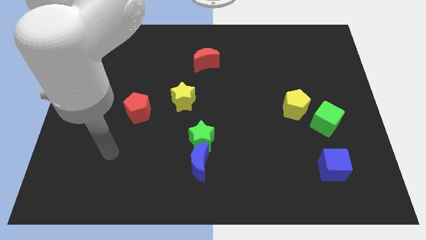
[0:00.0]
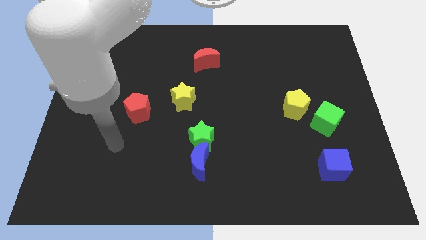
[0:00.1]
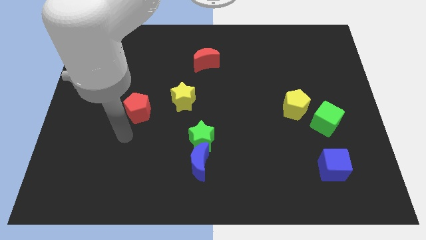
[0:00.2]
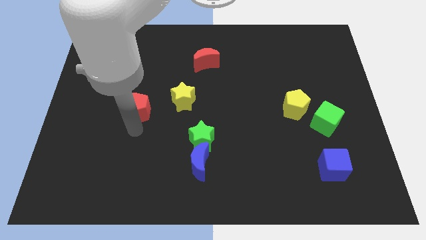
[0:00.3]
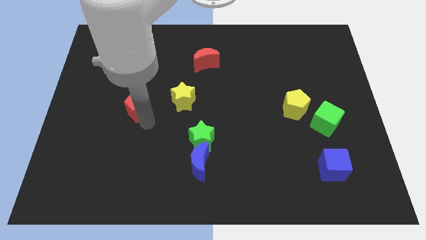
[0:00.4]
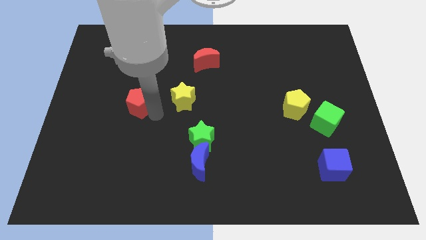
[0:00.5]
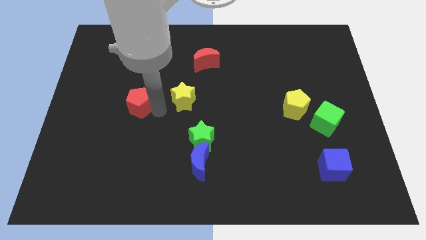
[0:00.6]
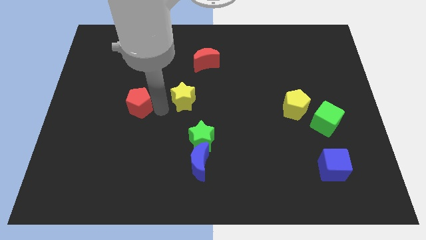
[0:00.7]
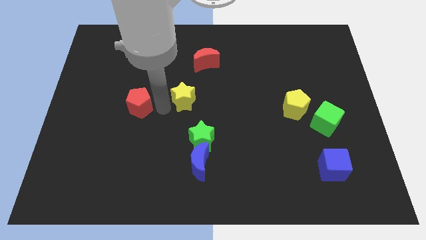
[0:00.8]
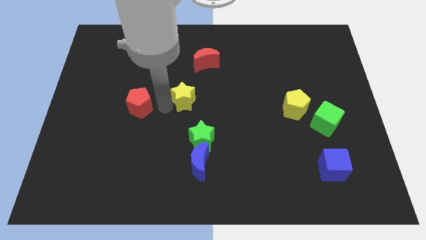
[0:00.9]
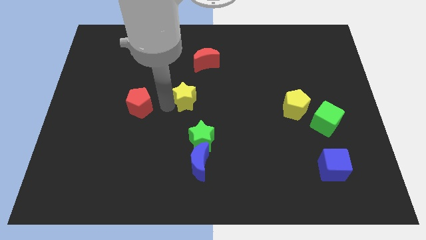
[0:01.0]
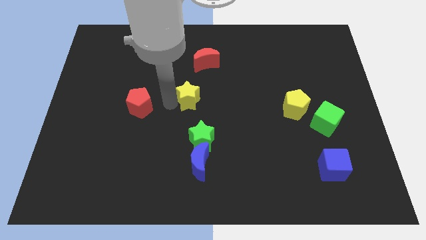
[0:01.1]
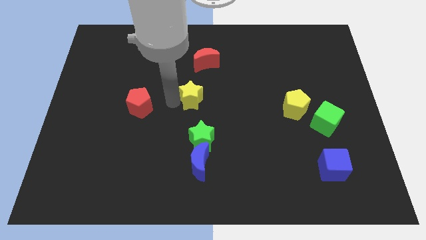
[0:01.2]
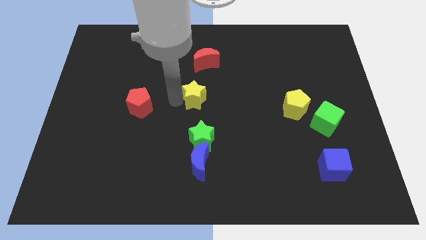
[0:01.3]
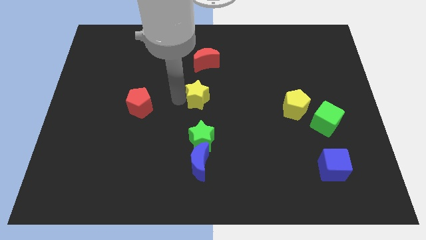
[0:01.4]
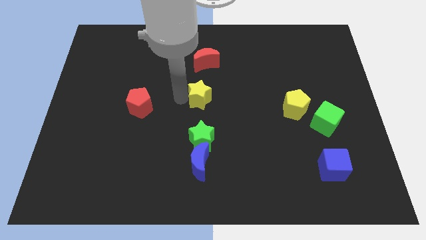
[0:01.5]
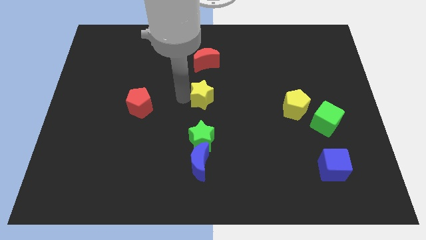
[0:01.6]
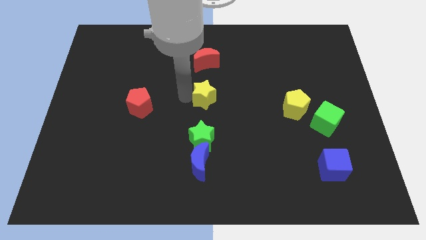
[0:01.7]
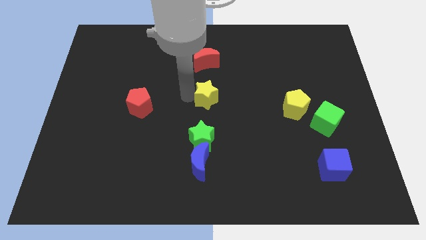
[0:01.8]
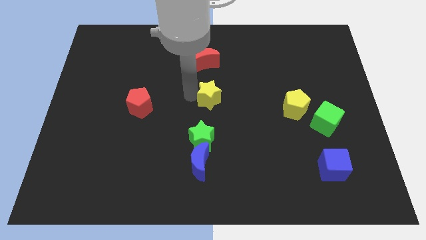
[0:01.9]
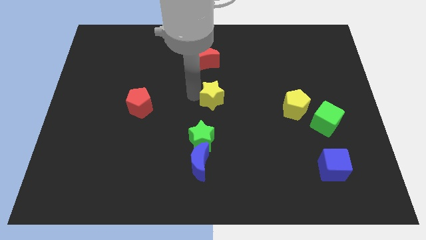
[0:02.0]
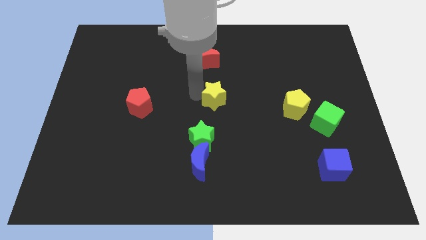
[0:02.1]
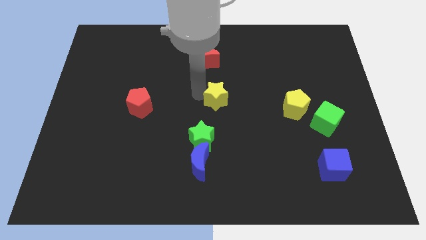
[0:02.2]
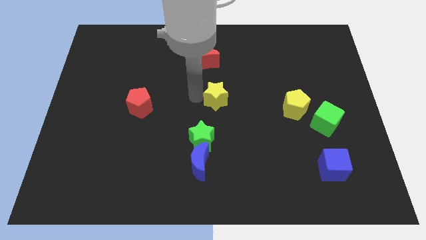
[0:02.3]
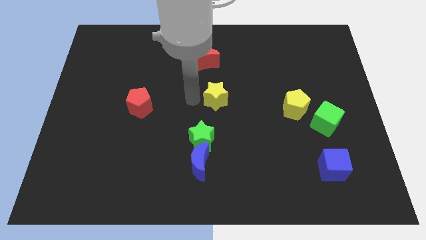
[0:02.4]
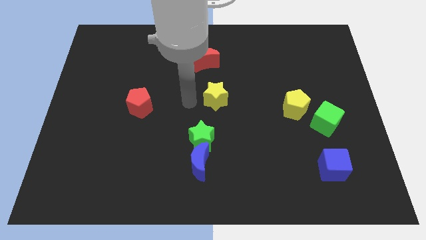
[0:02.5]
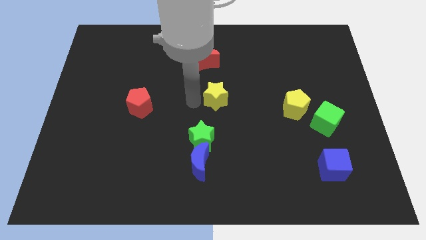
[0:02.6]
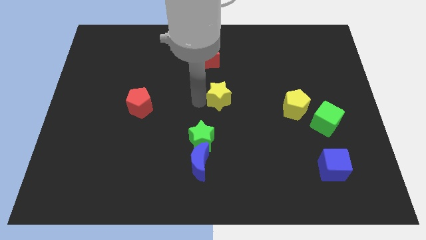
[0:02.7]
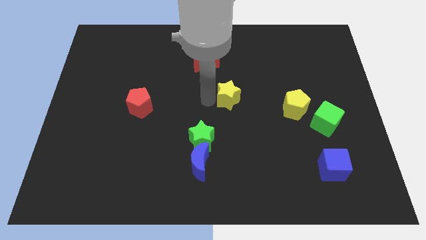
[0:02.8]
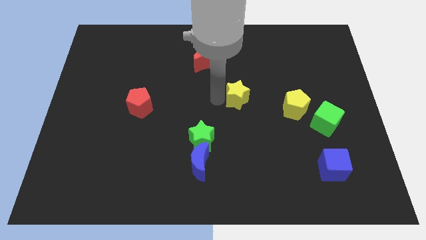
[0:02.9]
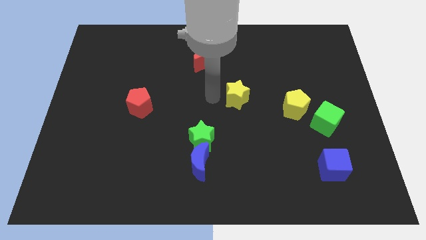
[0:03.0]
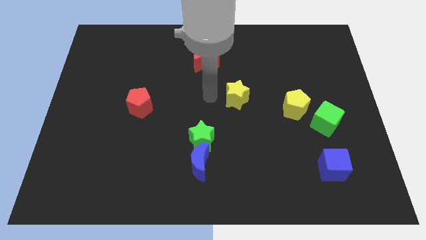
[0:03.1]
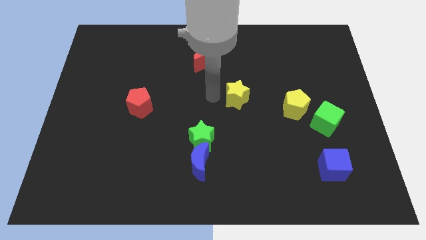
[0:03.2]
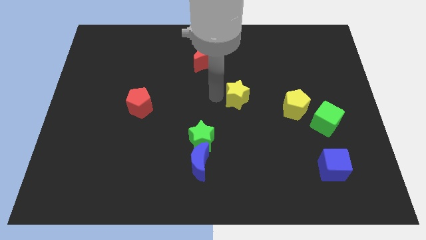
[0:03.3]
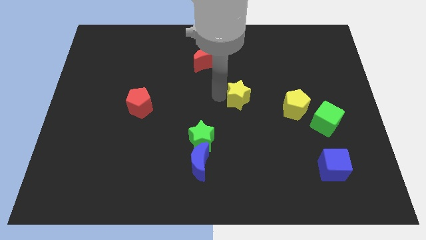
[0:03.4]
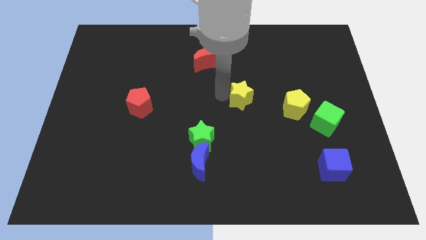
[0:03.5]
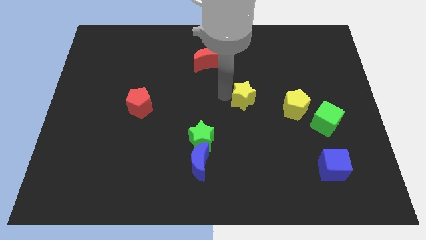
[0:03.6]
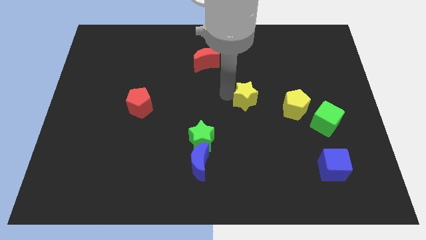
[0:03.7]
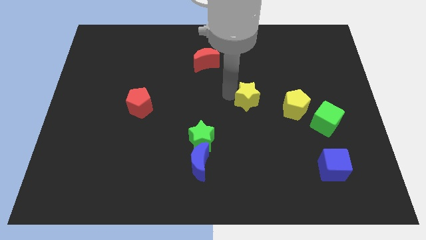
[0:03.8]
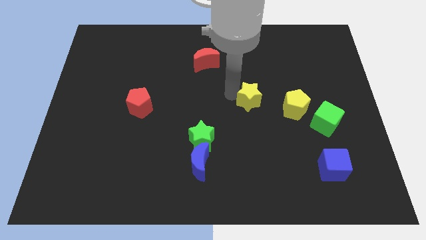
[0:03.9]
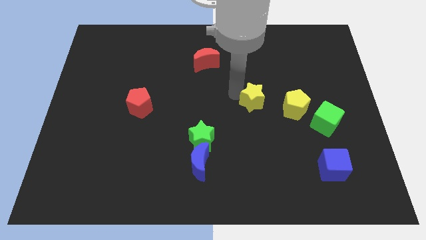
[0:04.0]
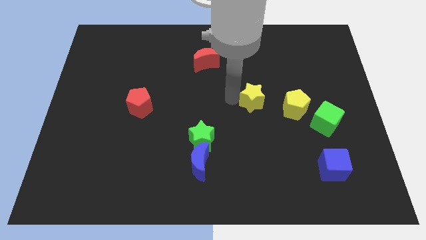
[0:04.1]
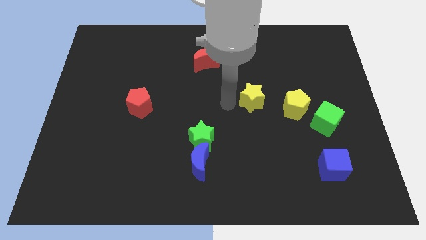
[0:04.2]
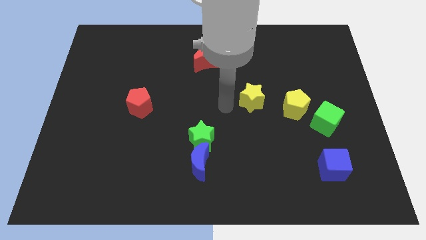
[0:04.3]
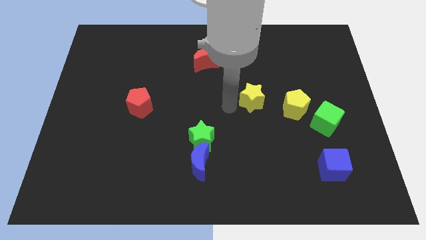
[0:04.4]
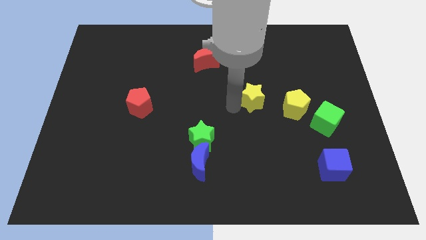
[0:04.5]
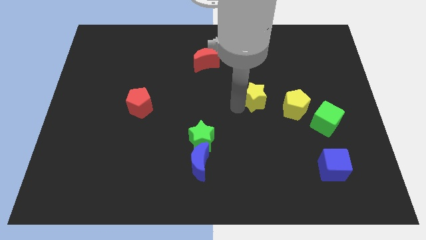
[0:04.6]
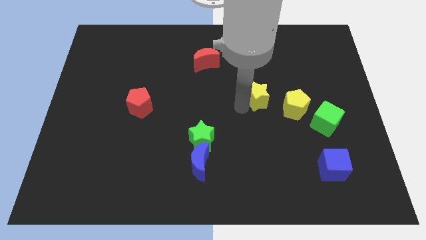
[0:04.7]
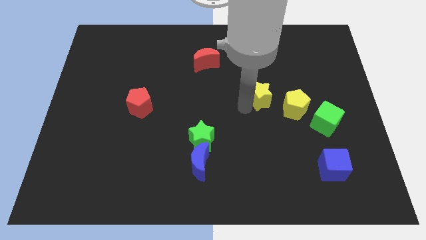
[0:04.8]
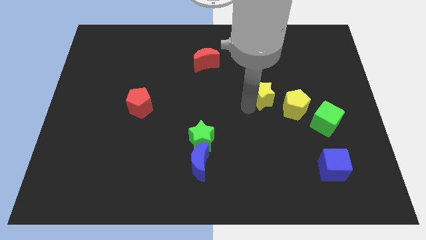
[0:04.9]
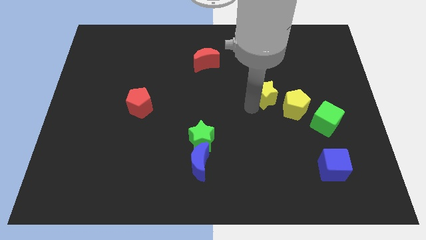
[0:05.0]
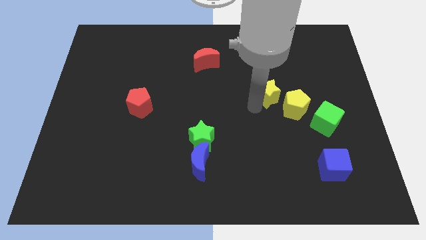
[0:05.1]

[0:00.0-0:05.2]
push the yellow star right

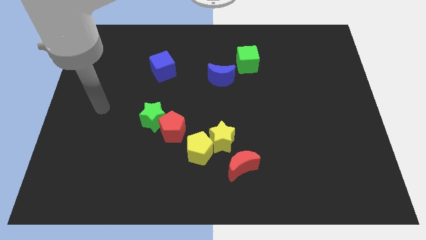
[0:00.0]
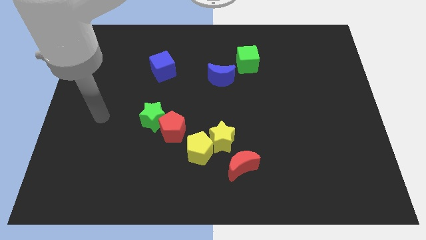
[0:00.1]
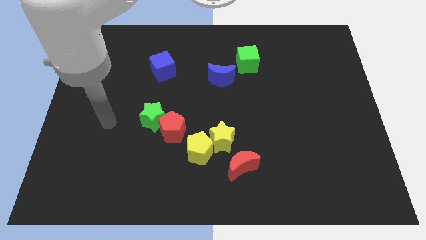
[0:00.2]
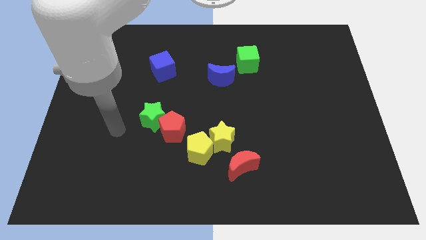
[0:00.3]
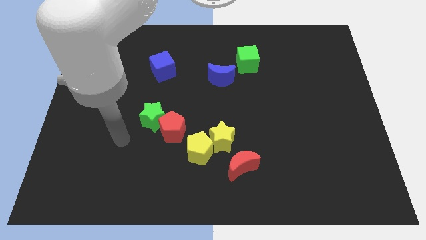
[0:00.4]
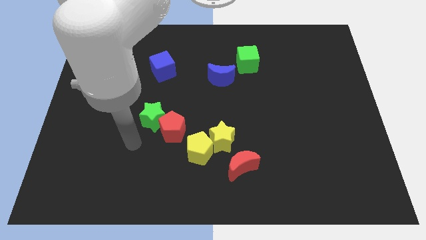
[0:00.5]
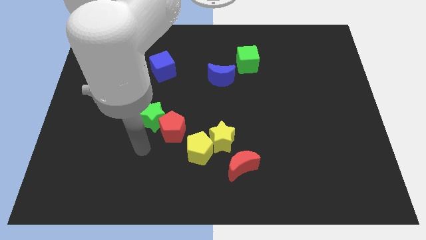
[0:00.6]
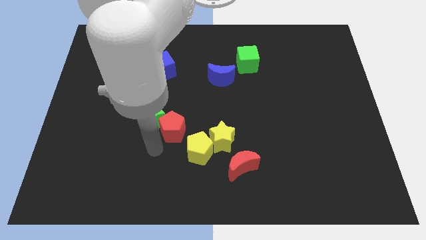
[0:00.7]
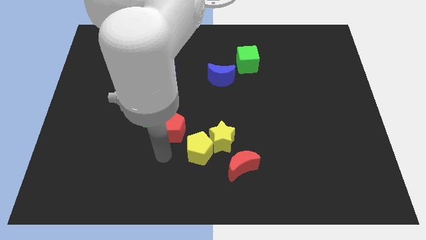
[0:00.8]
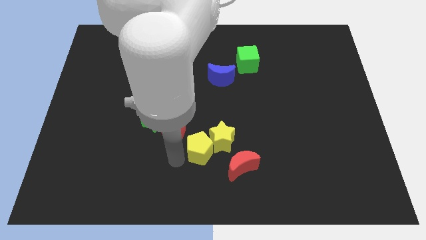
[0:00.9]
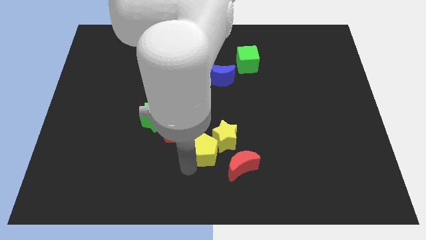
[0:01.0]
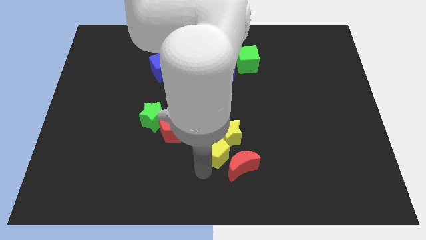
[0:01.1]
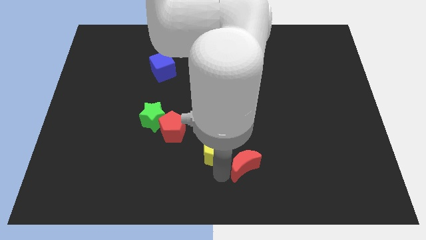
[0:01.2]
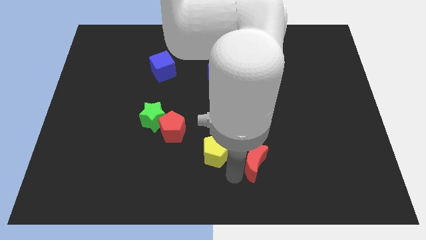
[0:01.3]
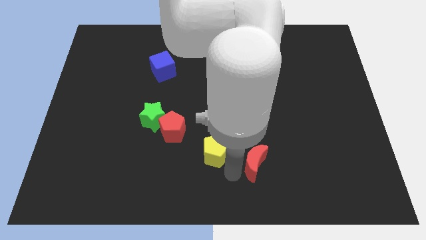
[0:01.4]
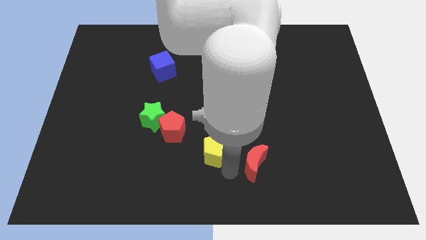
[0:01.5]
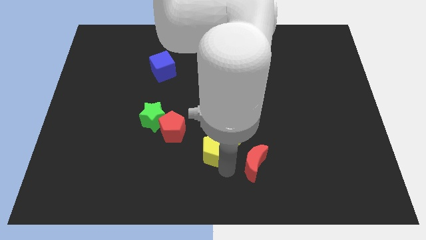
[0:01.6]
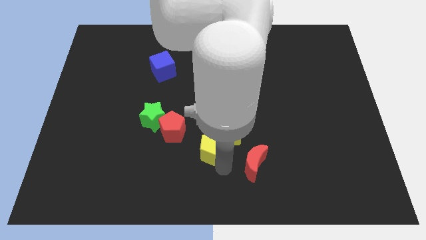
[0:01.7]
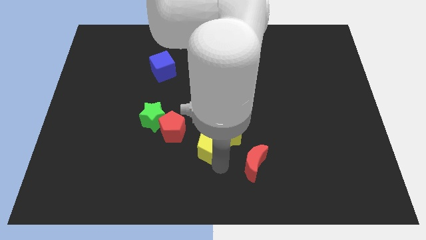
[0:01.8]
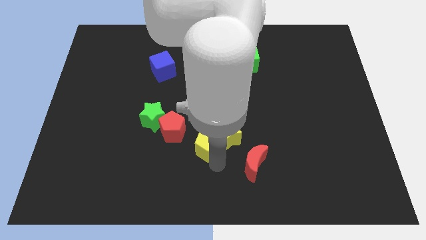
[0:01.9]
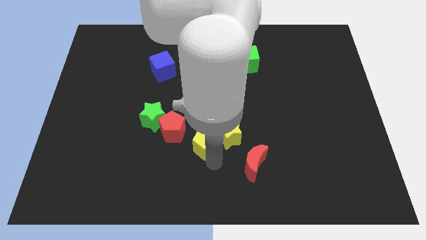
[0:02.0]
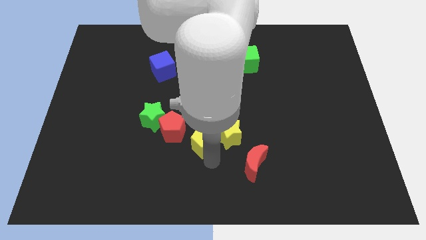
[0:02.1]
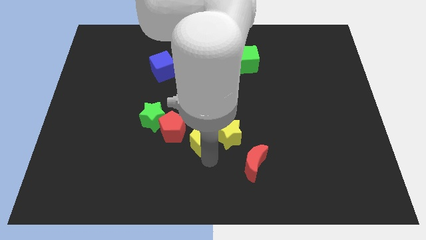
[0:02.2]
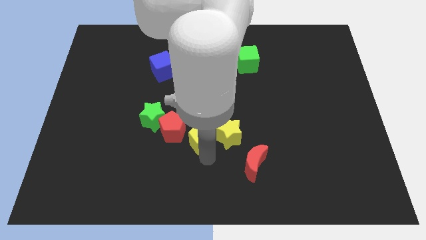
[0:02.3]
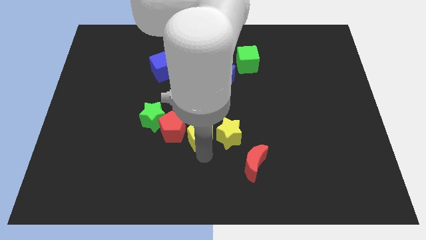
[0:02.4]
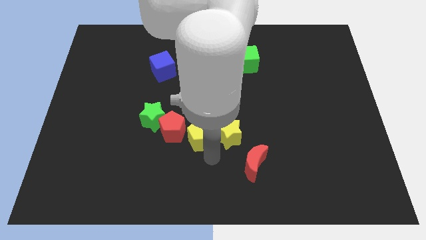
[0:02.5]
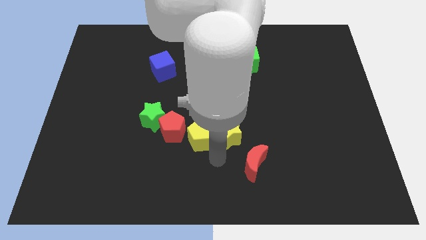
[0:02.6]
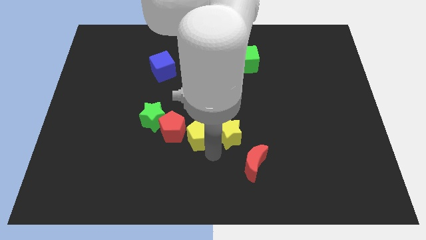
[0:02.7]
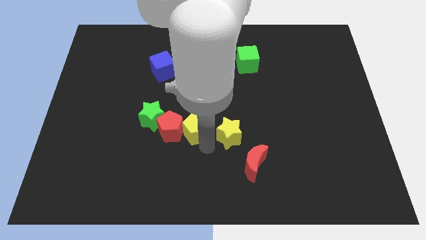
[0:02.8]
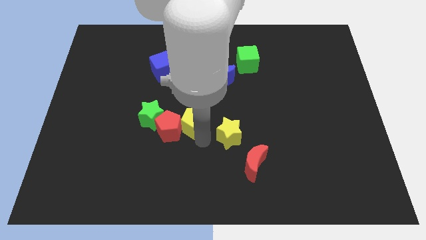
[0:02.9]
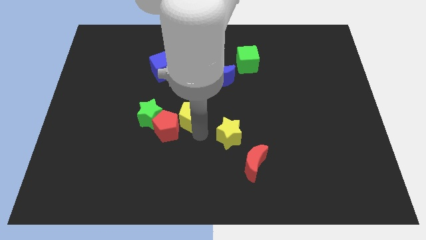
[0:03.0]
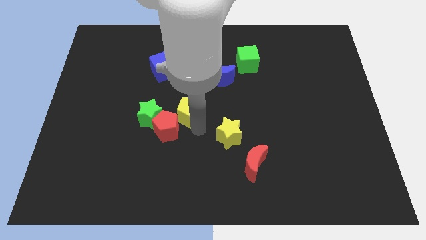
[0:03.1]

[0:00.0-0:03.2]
slightly slide the yellow pentagon up and then to the left
